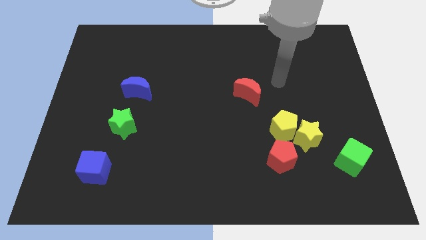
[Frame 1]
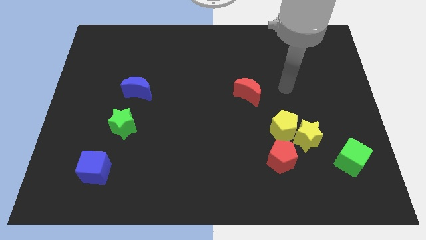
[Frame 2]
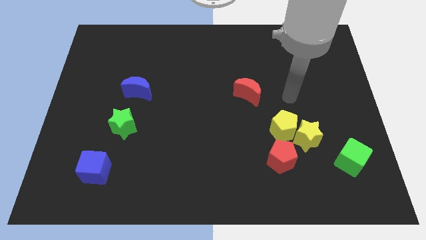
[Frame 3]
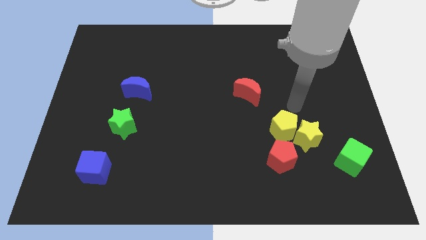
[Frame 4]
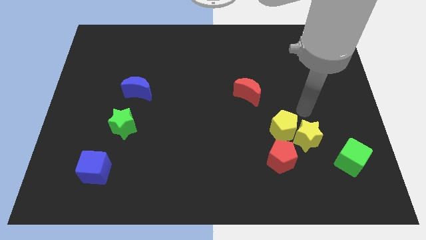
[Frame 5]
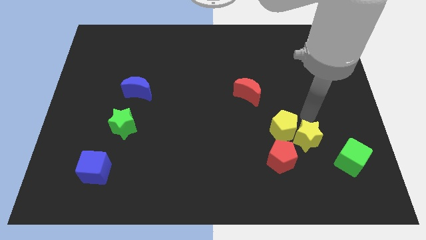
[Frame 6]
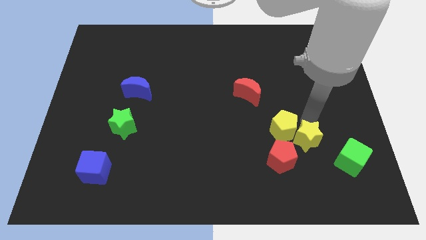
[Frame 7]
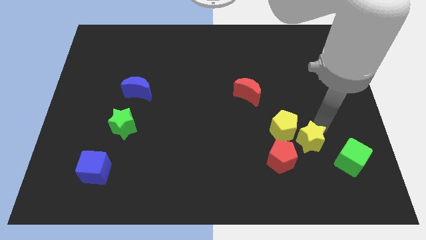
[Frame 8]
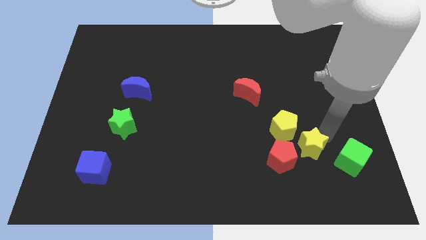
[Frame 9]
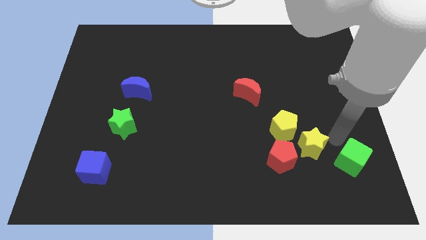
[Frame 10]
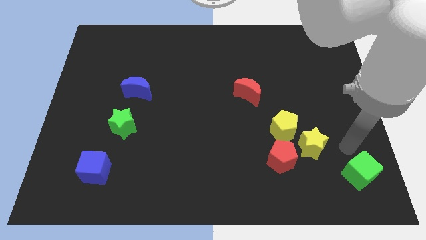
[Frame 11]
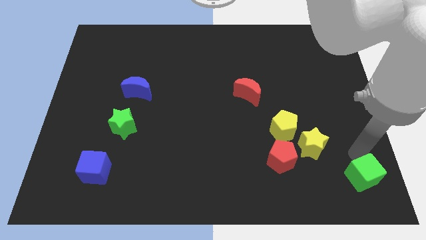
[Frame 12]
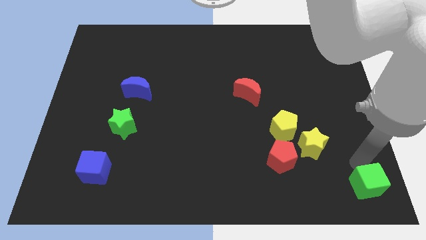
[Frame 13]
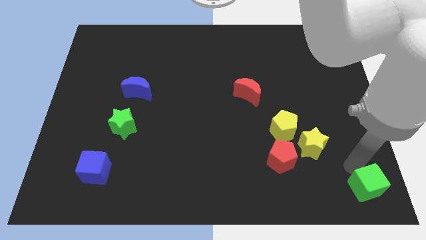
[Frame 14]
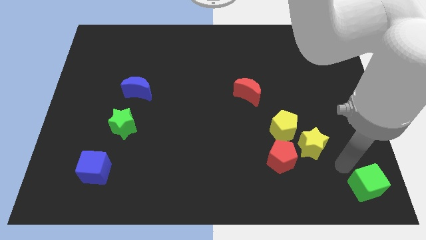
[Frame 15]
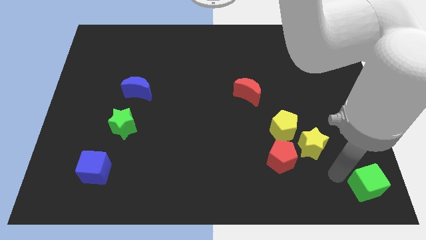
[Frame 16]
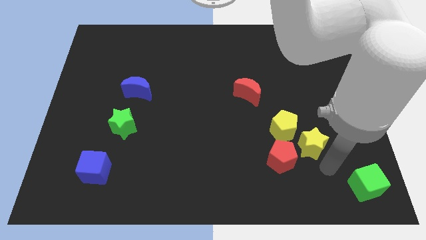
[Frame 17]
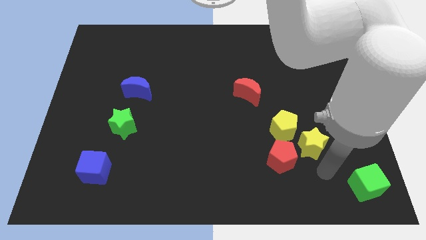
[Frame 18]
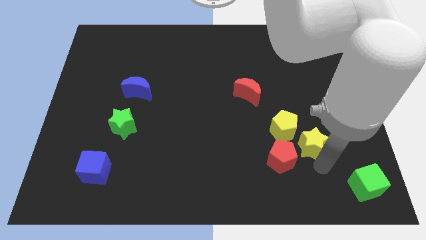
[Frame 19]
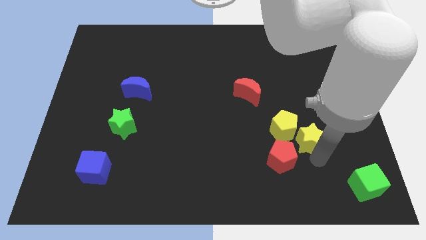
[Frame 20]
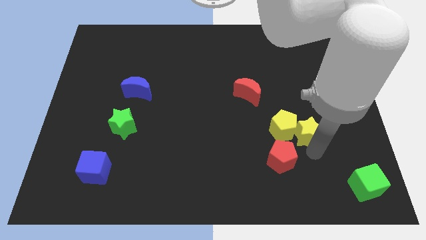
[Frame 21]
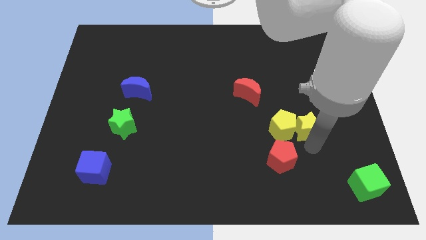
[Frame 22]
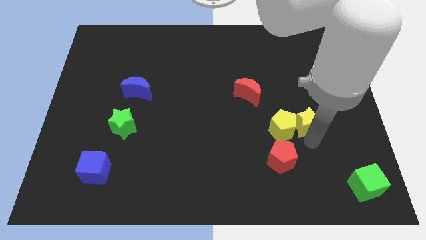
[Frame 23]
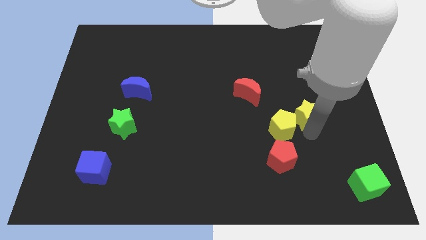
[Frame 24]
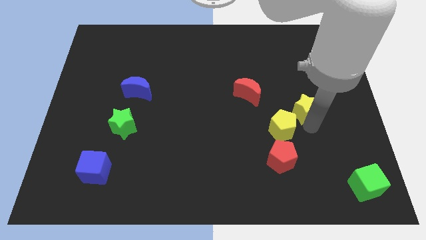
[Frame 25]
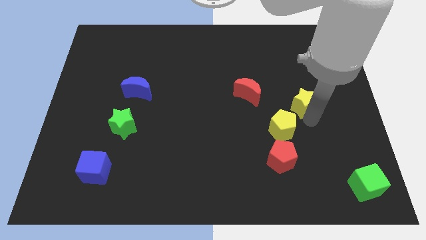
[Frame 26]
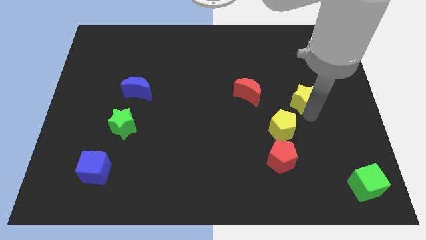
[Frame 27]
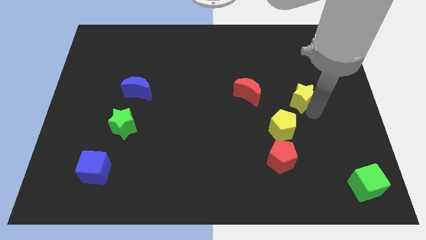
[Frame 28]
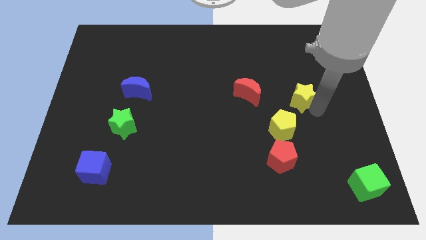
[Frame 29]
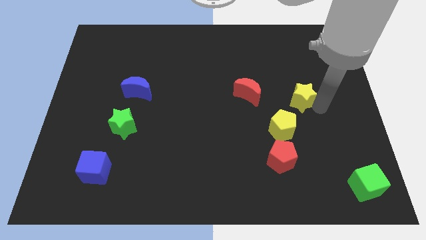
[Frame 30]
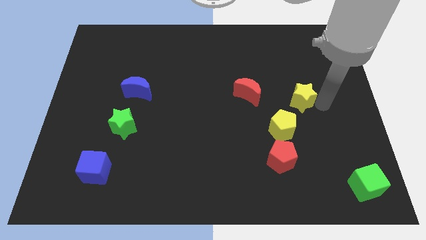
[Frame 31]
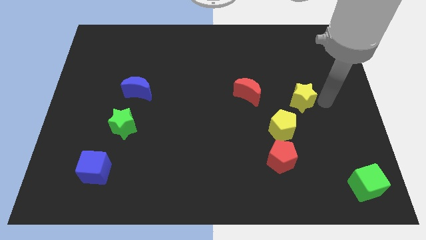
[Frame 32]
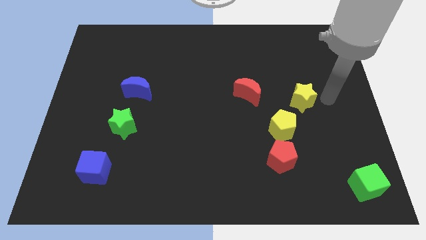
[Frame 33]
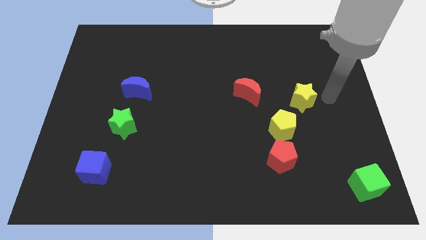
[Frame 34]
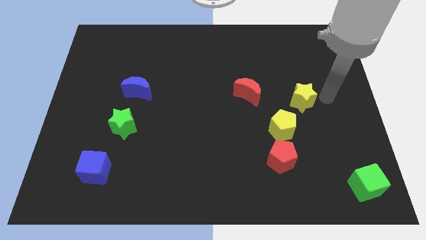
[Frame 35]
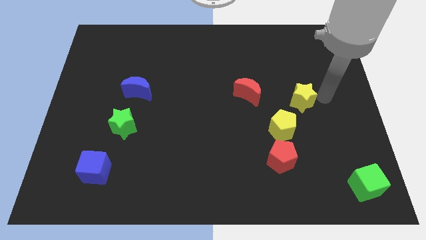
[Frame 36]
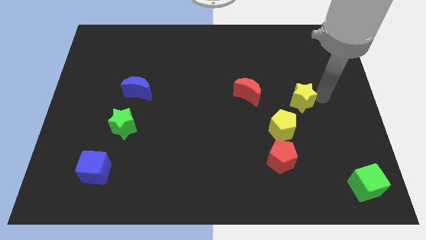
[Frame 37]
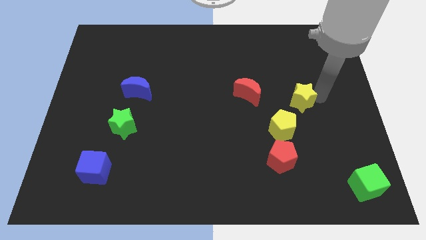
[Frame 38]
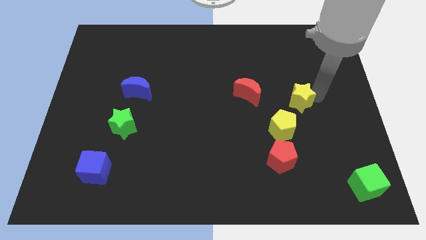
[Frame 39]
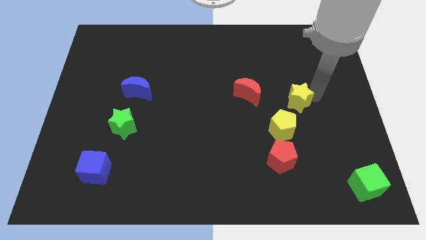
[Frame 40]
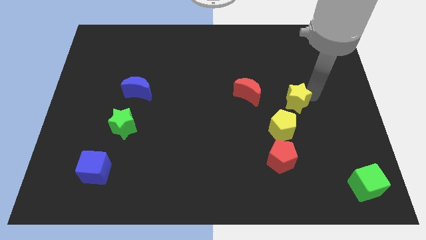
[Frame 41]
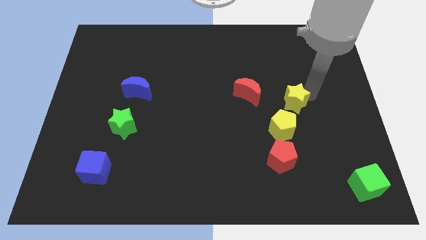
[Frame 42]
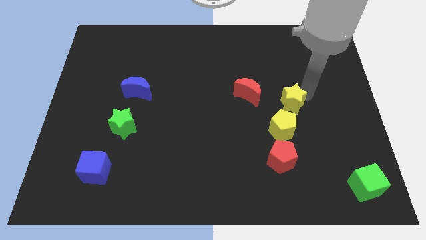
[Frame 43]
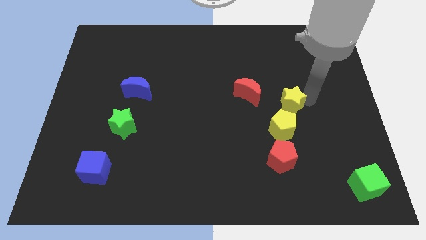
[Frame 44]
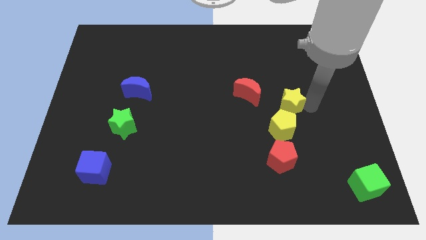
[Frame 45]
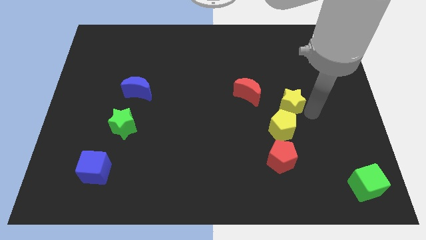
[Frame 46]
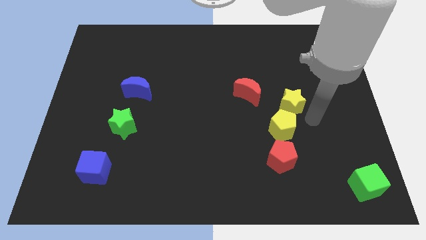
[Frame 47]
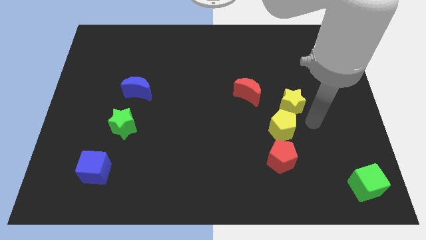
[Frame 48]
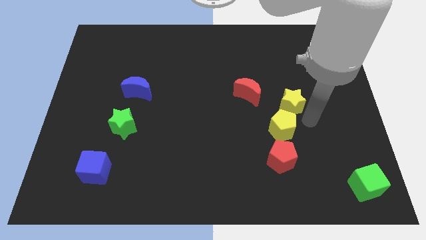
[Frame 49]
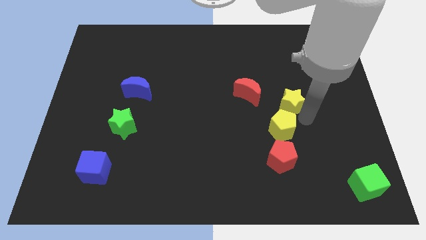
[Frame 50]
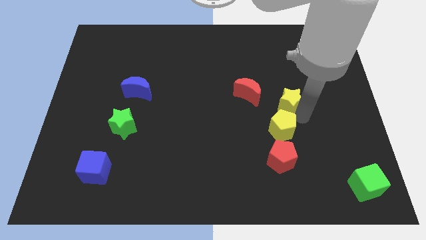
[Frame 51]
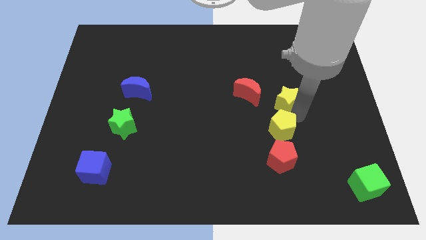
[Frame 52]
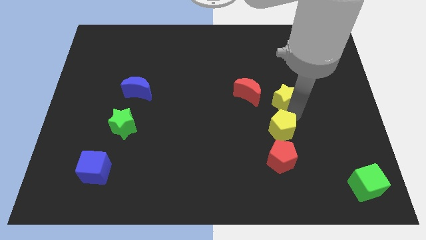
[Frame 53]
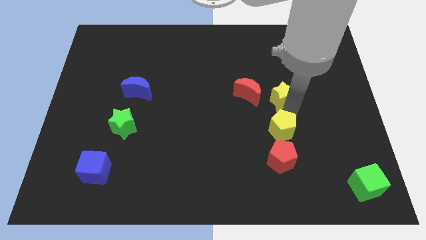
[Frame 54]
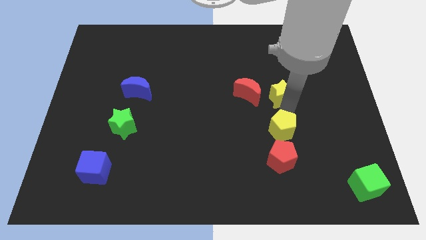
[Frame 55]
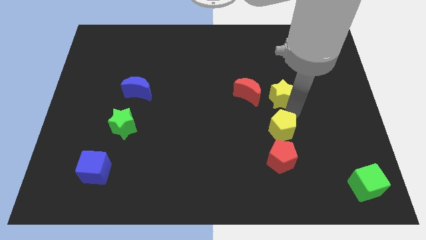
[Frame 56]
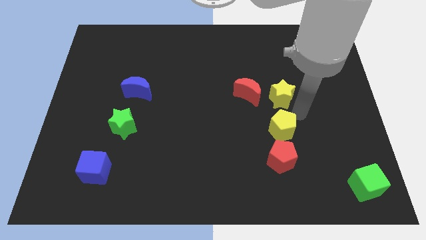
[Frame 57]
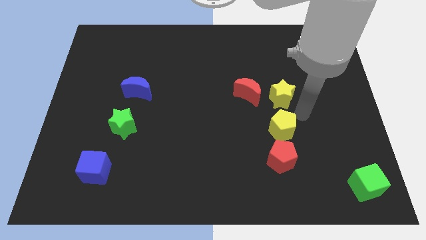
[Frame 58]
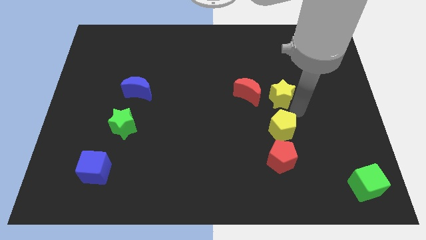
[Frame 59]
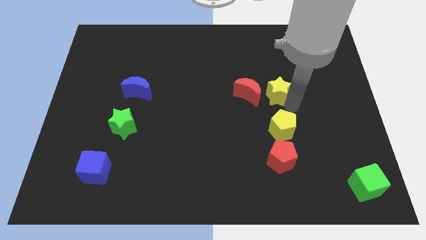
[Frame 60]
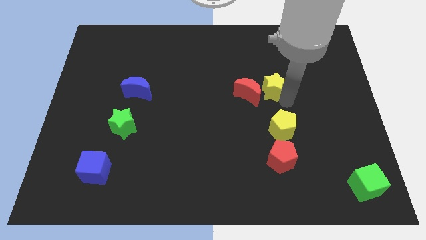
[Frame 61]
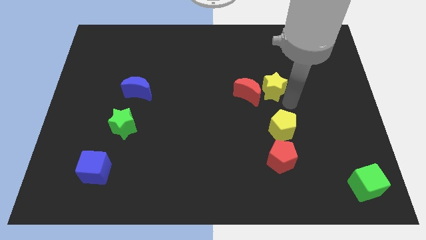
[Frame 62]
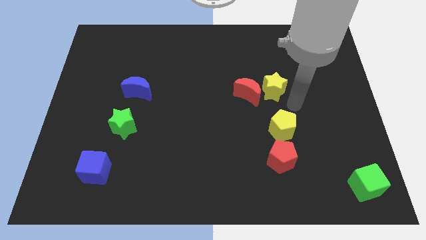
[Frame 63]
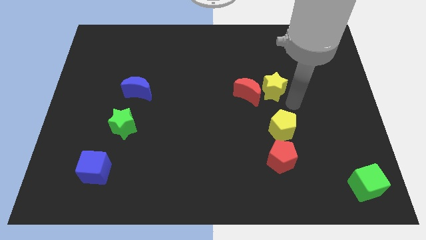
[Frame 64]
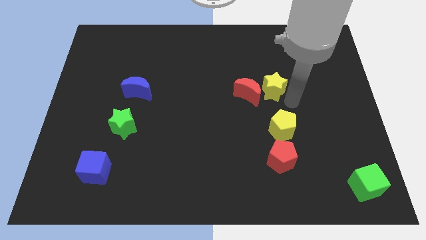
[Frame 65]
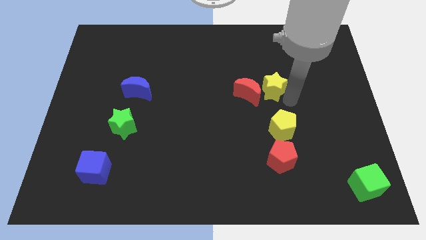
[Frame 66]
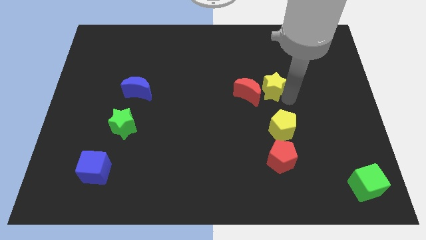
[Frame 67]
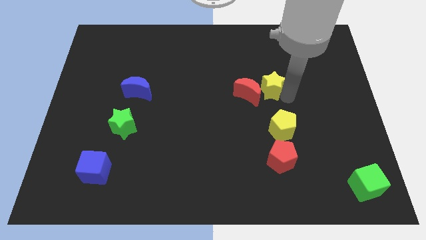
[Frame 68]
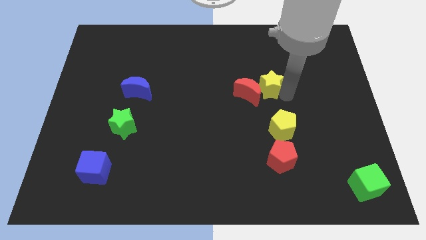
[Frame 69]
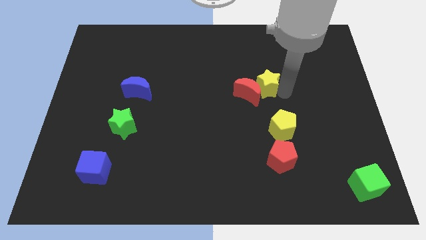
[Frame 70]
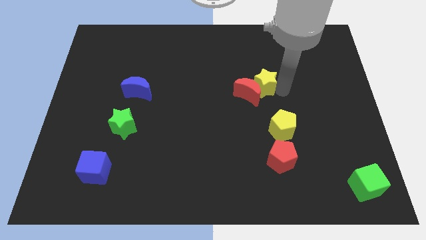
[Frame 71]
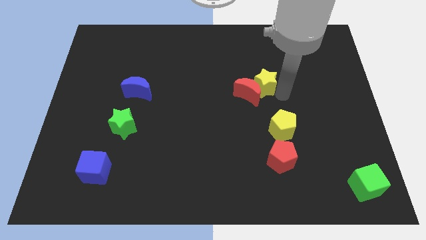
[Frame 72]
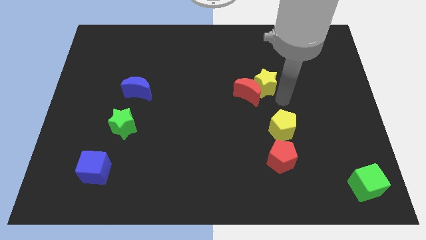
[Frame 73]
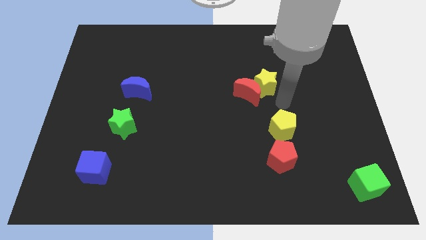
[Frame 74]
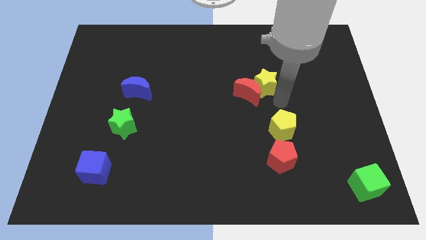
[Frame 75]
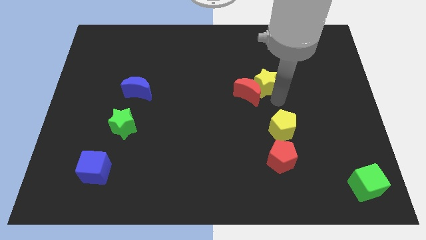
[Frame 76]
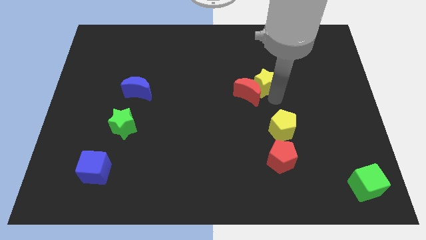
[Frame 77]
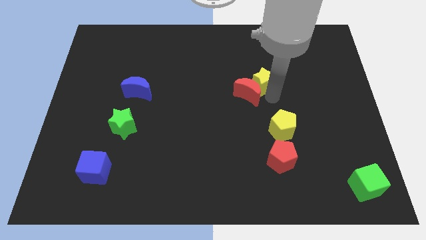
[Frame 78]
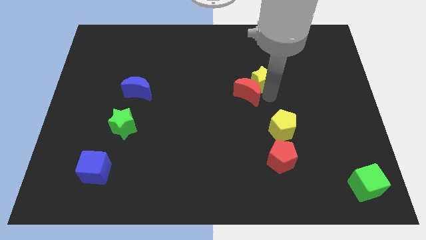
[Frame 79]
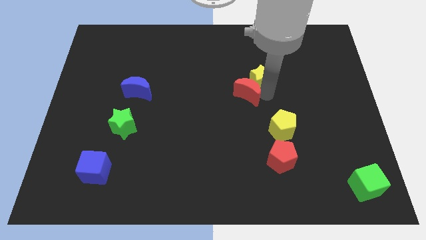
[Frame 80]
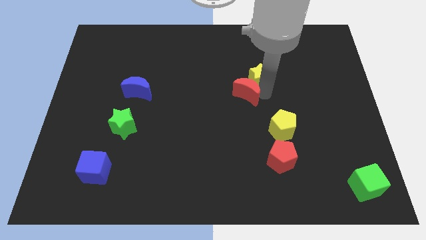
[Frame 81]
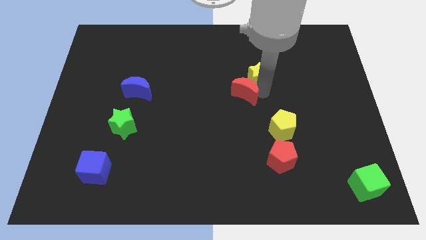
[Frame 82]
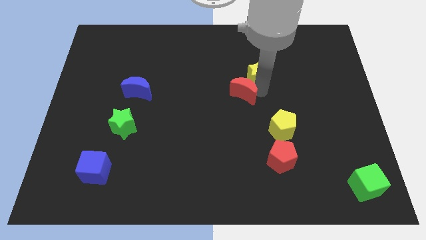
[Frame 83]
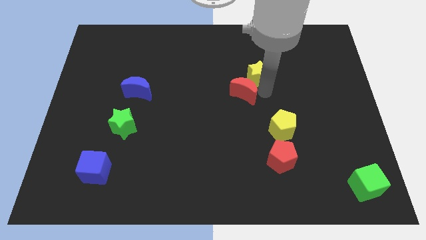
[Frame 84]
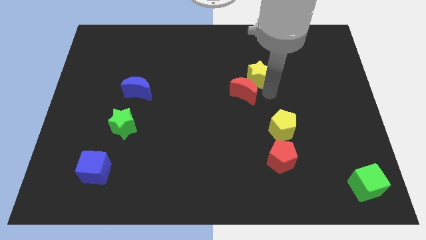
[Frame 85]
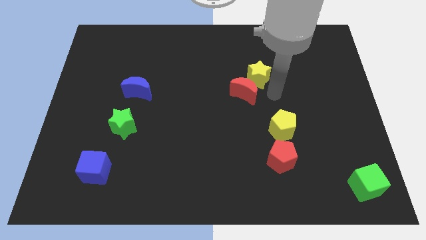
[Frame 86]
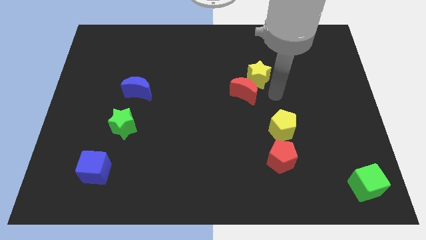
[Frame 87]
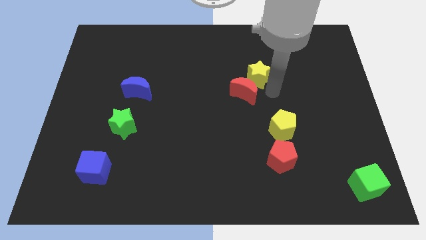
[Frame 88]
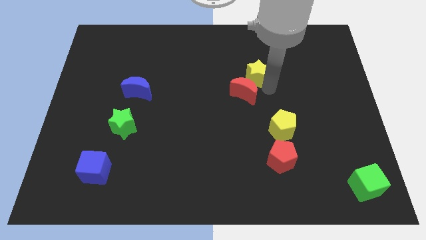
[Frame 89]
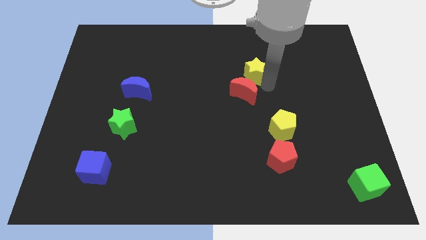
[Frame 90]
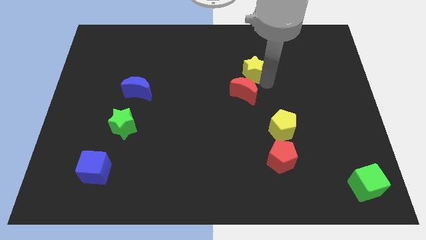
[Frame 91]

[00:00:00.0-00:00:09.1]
push the yellow star up and to the left
